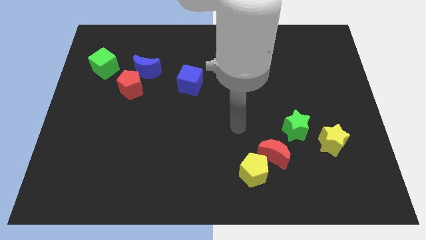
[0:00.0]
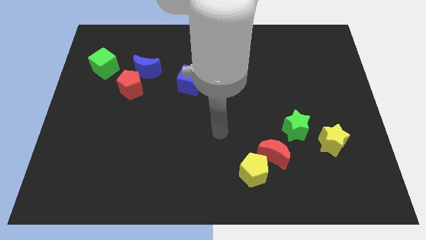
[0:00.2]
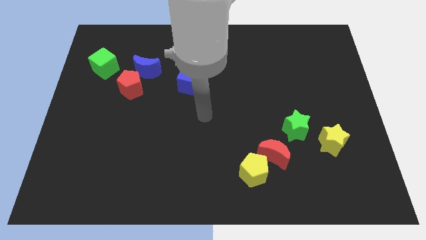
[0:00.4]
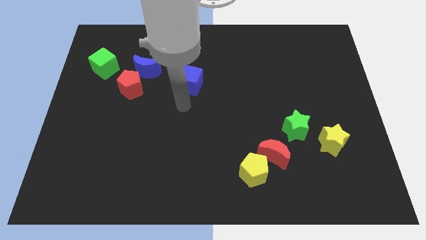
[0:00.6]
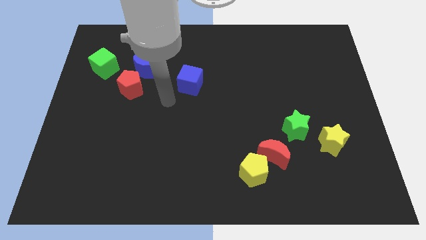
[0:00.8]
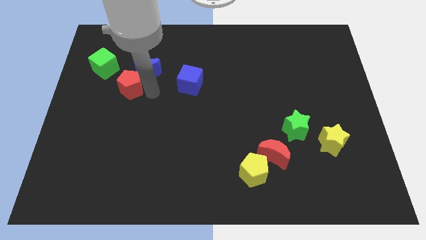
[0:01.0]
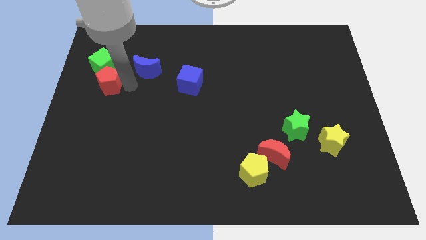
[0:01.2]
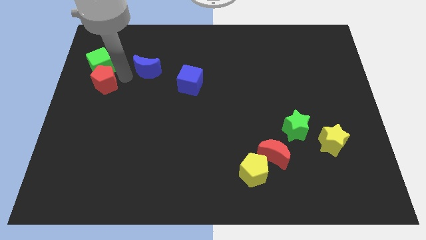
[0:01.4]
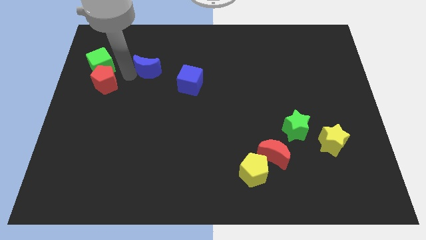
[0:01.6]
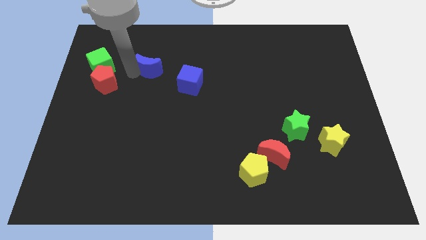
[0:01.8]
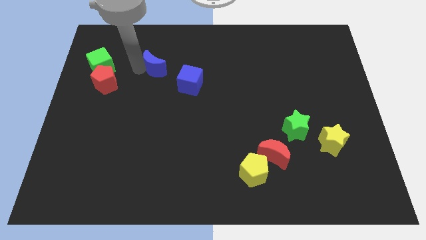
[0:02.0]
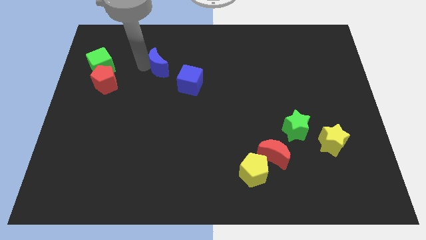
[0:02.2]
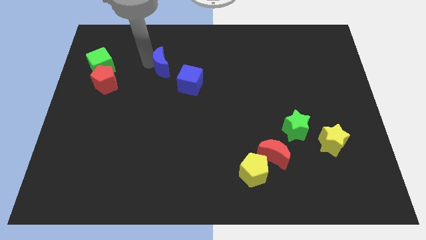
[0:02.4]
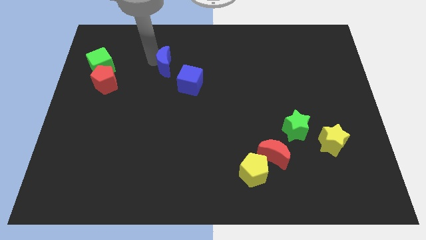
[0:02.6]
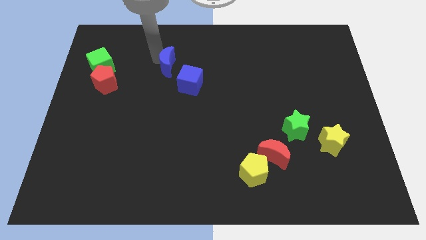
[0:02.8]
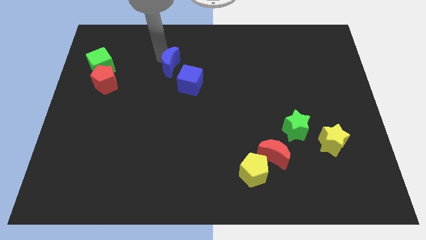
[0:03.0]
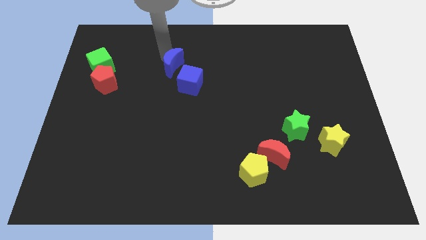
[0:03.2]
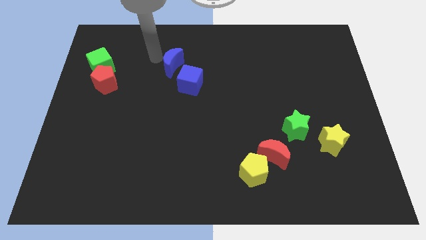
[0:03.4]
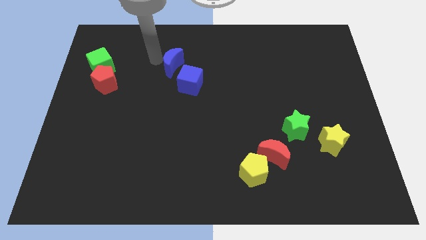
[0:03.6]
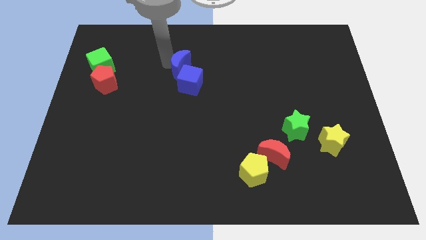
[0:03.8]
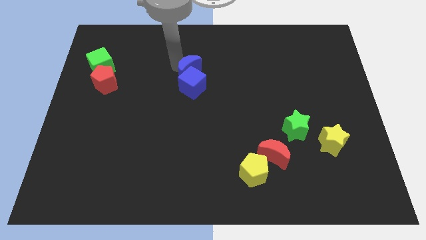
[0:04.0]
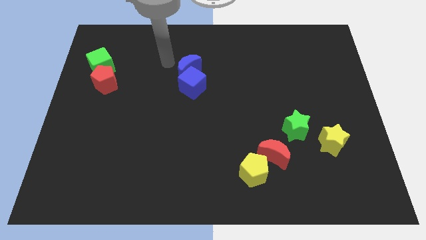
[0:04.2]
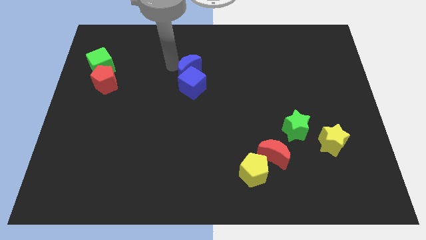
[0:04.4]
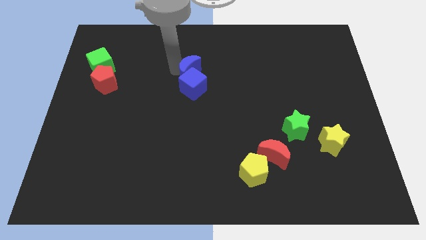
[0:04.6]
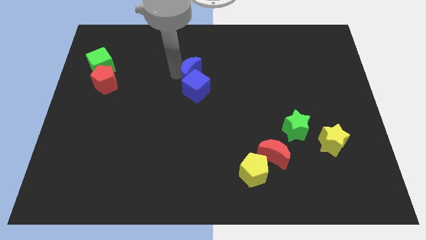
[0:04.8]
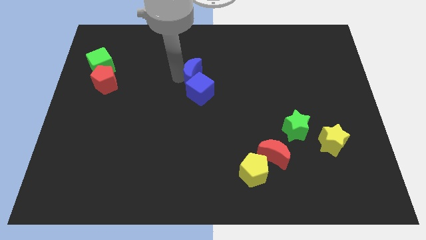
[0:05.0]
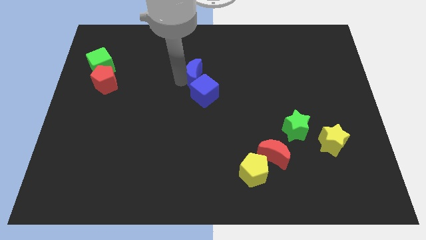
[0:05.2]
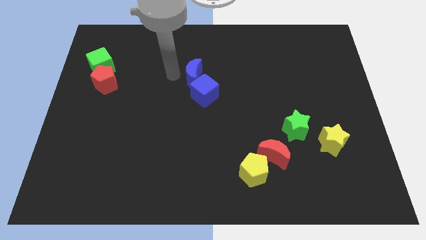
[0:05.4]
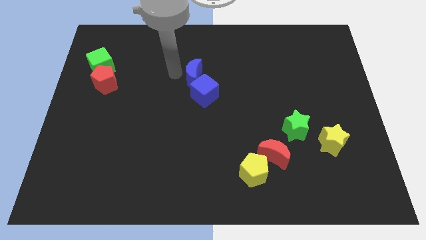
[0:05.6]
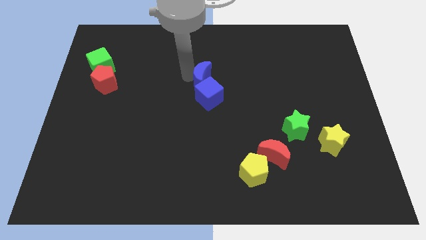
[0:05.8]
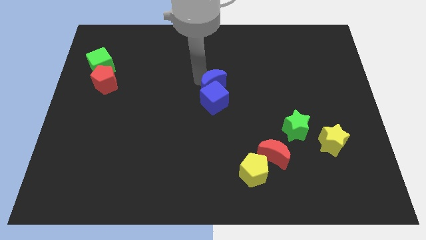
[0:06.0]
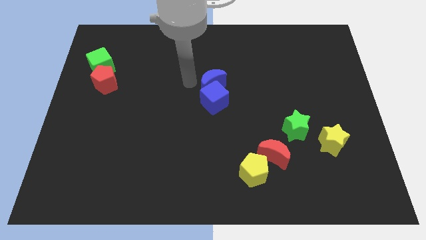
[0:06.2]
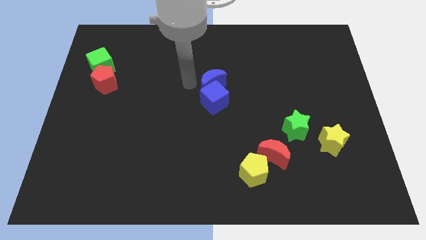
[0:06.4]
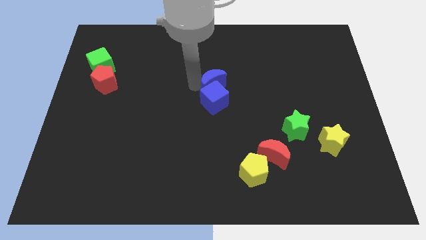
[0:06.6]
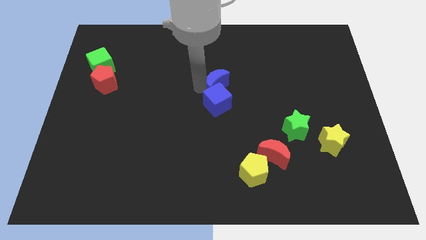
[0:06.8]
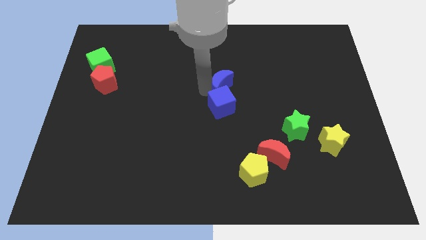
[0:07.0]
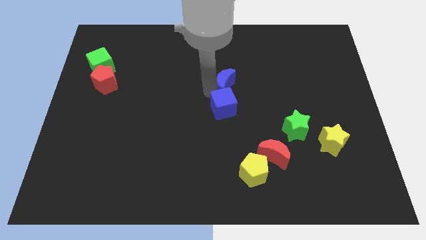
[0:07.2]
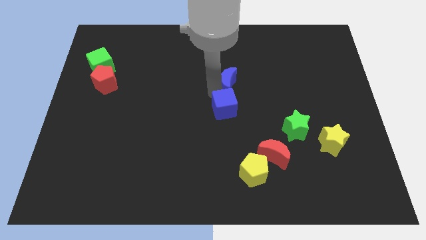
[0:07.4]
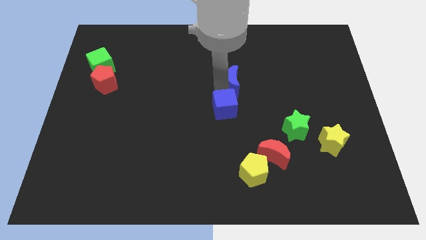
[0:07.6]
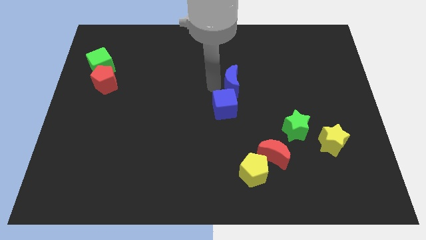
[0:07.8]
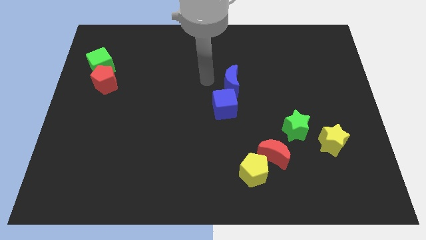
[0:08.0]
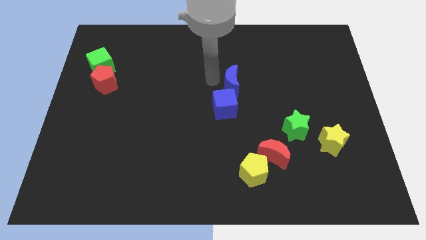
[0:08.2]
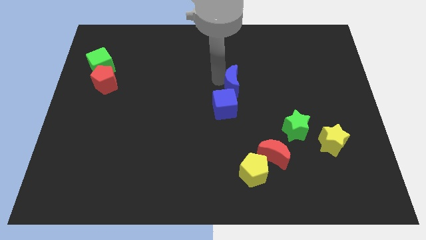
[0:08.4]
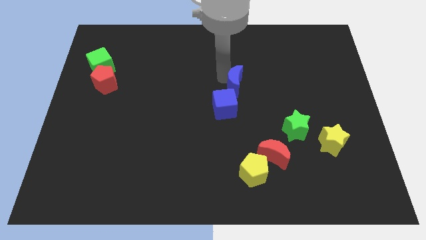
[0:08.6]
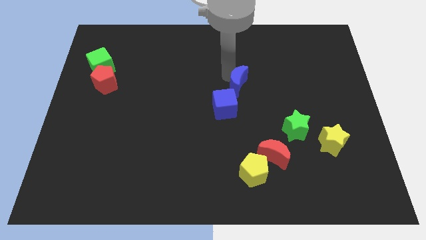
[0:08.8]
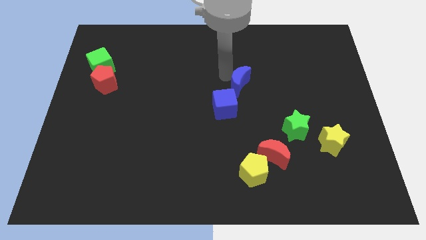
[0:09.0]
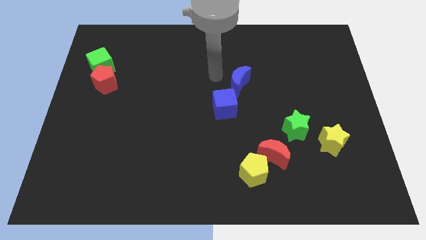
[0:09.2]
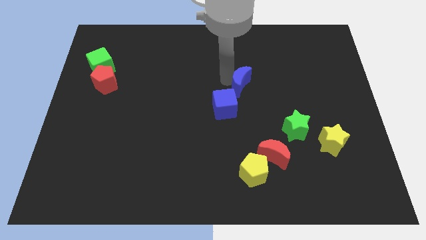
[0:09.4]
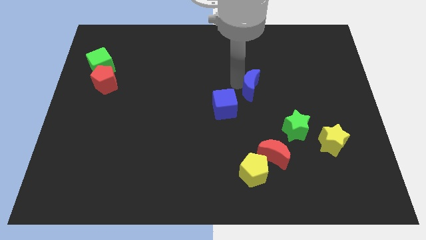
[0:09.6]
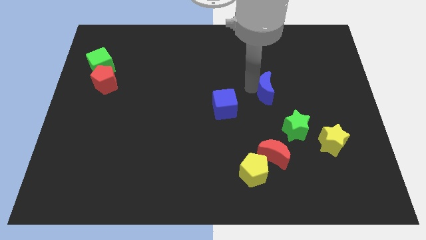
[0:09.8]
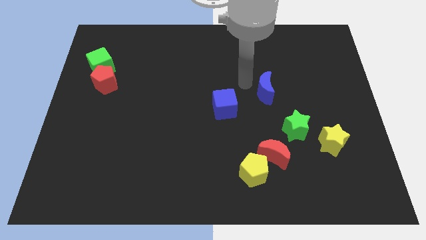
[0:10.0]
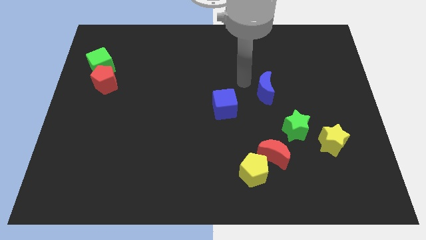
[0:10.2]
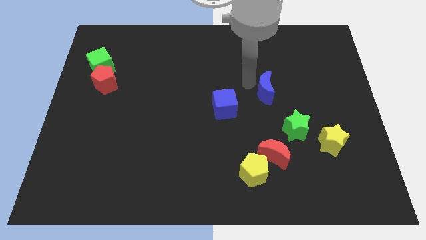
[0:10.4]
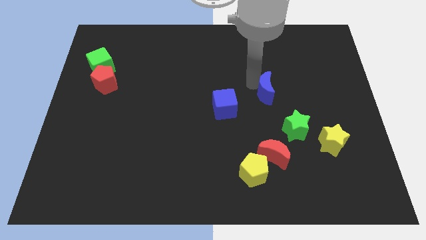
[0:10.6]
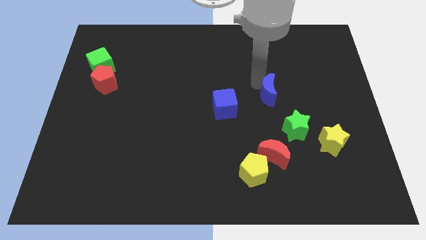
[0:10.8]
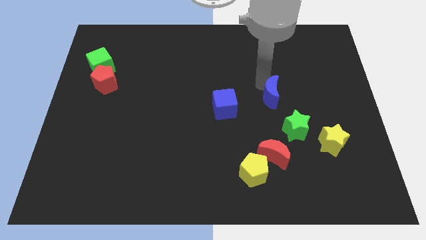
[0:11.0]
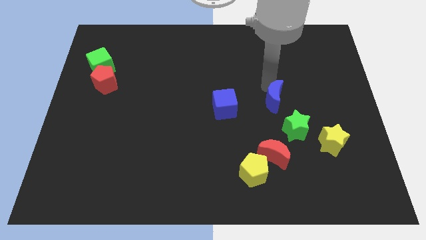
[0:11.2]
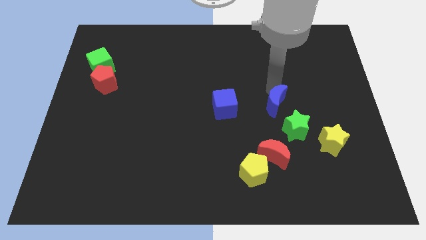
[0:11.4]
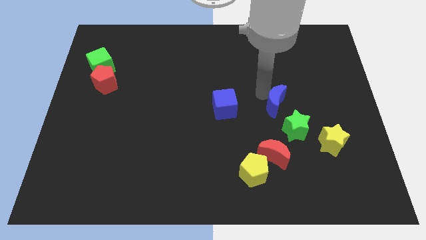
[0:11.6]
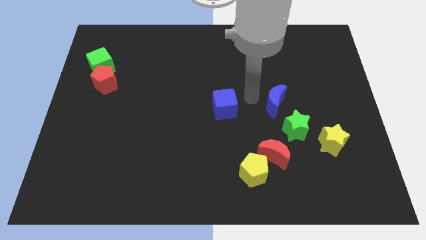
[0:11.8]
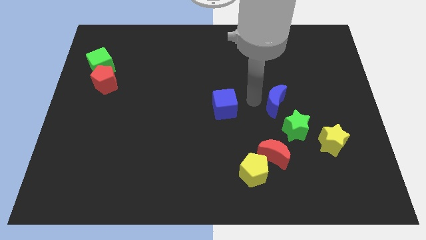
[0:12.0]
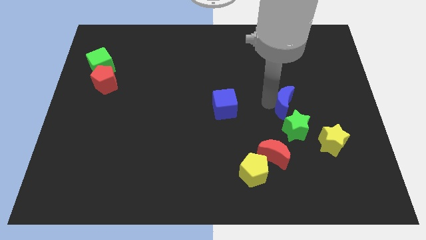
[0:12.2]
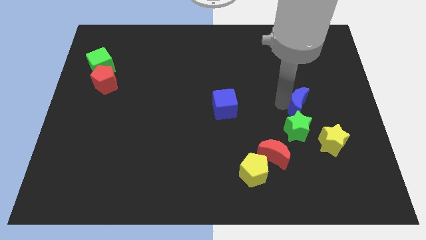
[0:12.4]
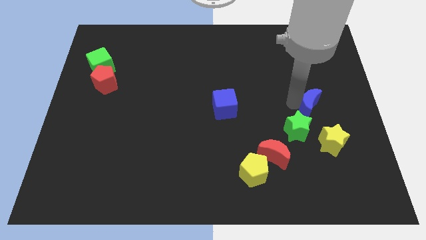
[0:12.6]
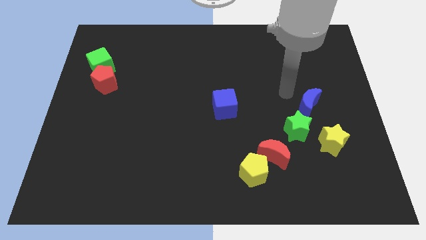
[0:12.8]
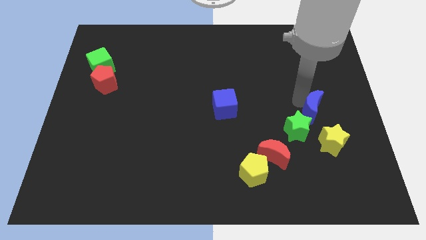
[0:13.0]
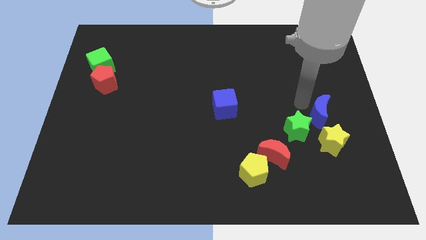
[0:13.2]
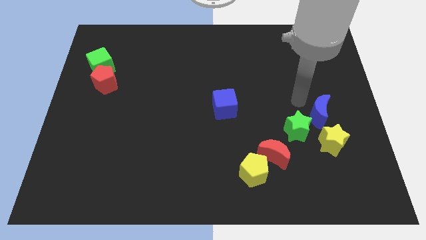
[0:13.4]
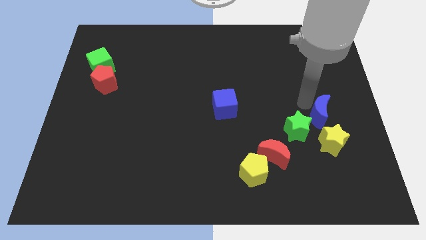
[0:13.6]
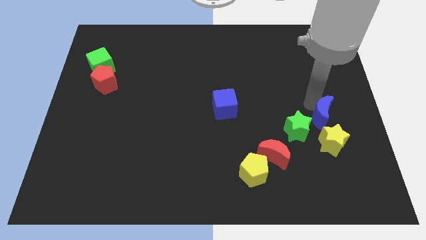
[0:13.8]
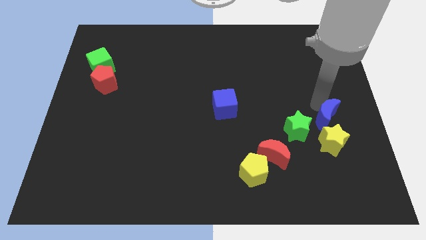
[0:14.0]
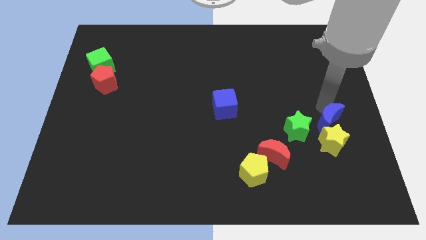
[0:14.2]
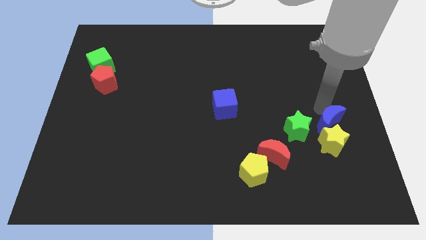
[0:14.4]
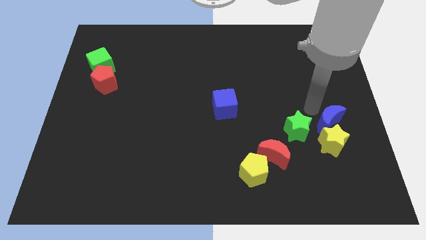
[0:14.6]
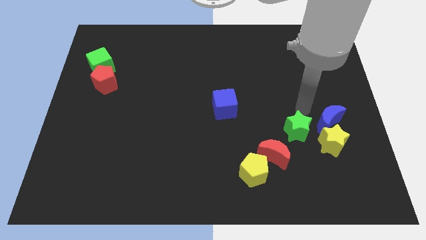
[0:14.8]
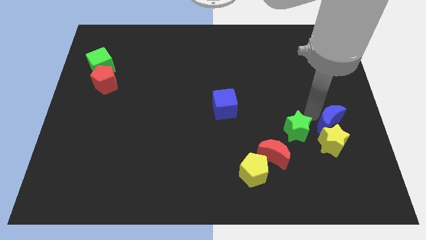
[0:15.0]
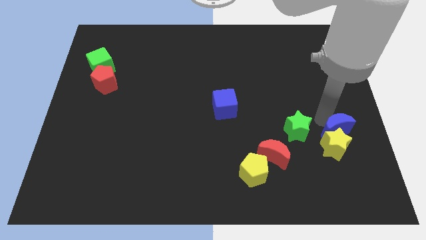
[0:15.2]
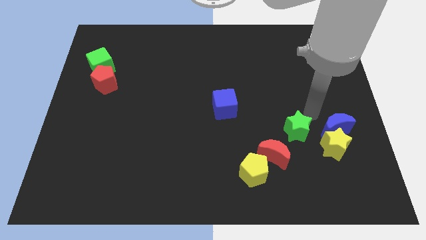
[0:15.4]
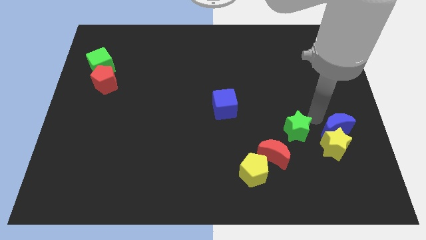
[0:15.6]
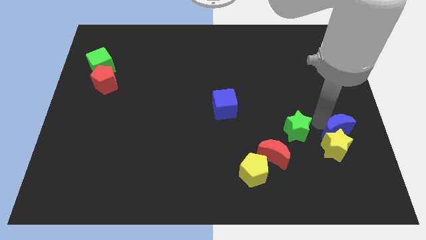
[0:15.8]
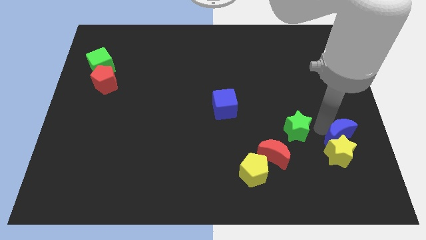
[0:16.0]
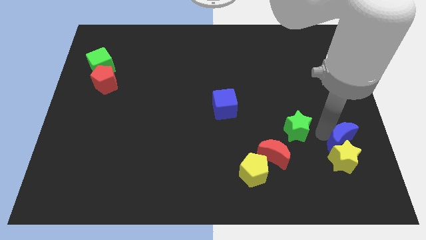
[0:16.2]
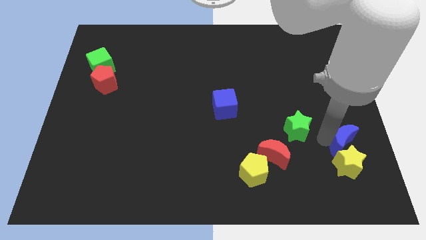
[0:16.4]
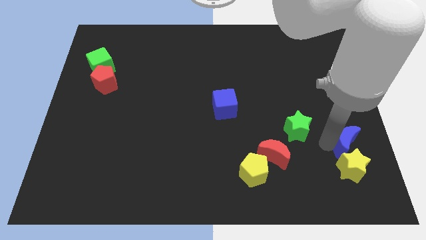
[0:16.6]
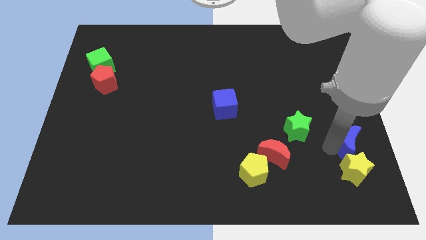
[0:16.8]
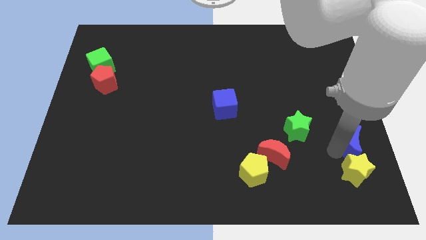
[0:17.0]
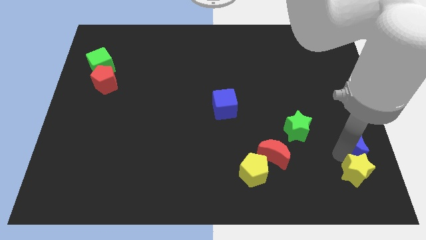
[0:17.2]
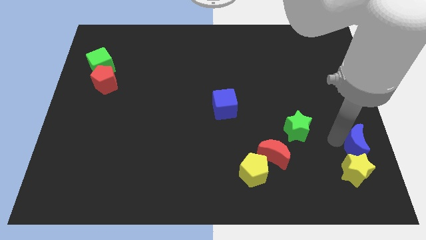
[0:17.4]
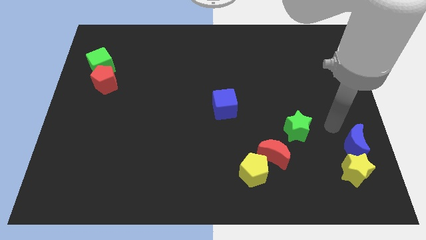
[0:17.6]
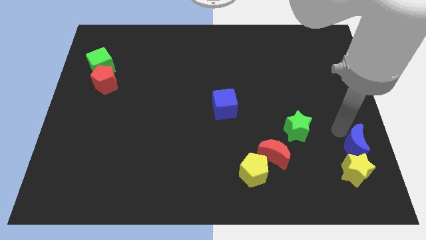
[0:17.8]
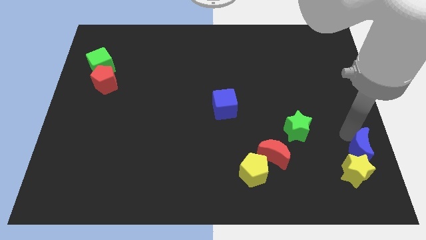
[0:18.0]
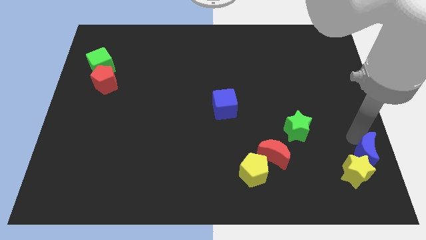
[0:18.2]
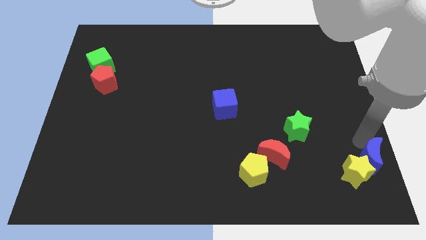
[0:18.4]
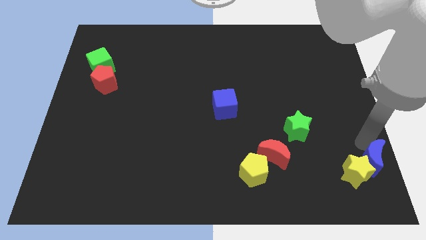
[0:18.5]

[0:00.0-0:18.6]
push the blue moon to the bottom right of the board
